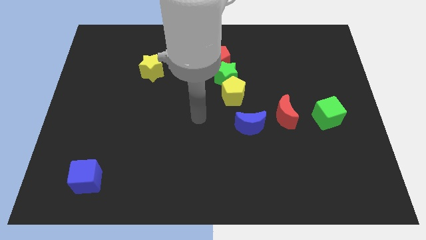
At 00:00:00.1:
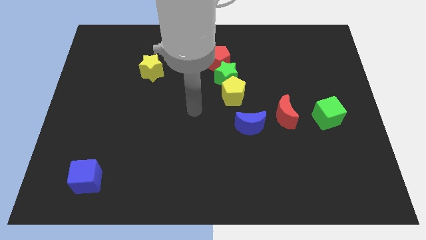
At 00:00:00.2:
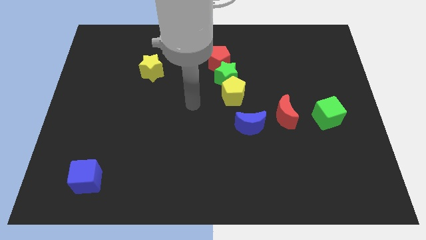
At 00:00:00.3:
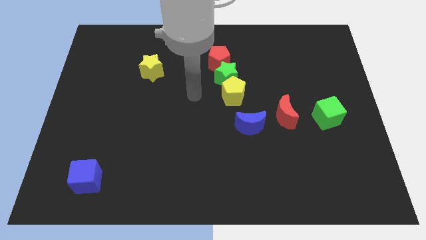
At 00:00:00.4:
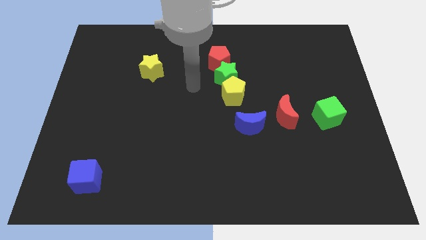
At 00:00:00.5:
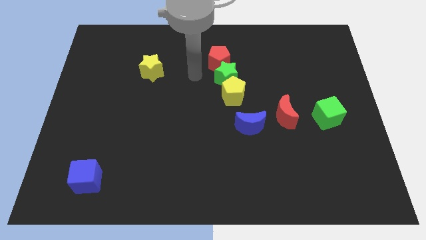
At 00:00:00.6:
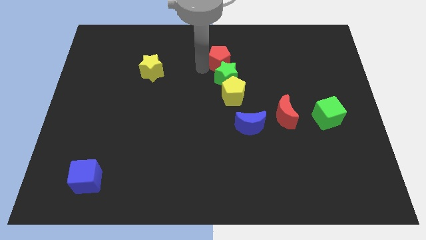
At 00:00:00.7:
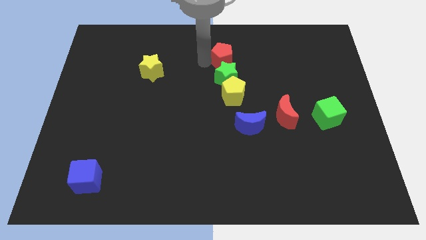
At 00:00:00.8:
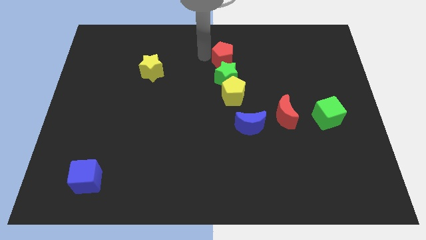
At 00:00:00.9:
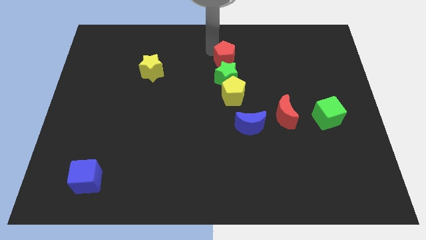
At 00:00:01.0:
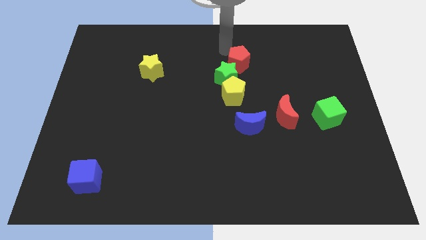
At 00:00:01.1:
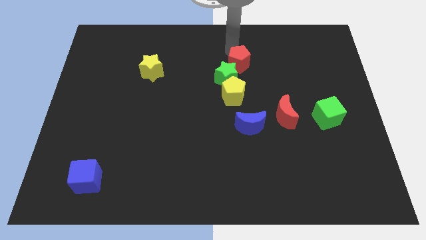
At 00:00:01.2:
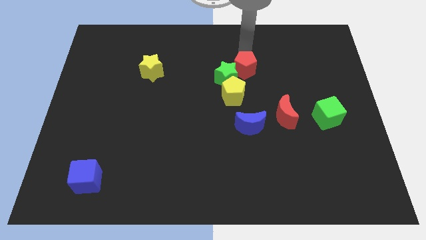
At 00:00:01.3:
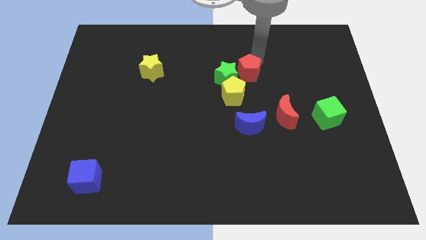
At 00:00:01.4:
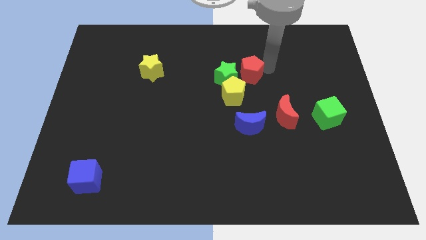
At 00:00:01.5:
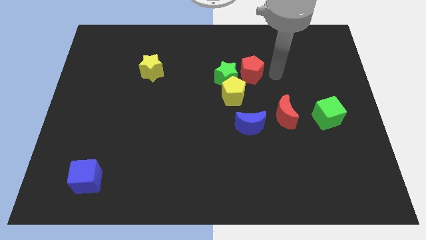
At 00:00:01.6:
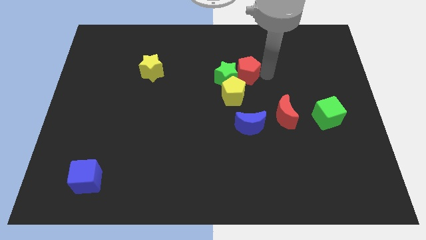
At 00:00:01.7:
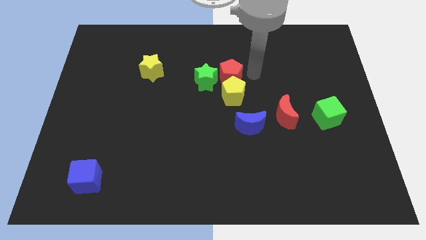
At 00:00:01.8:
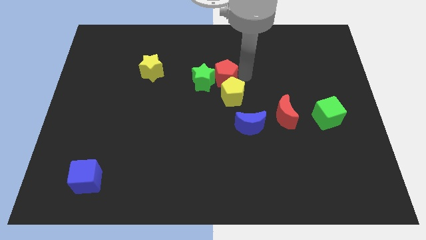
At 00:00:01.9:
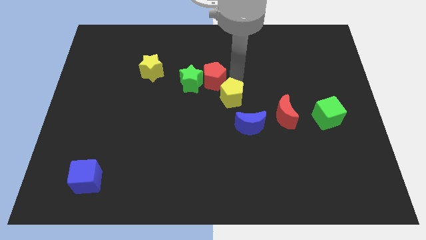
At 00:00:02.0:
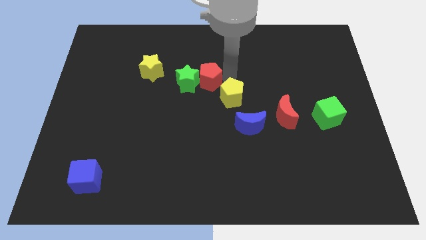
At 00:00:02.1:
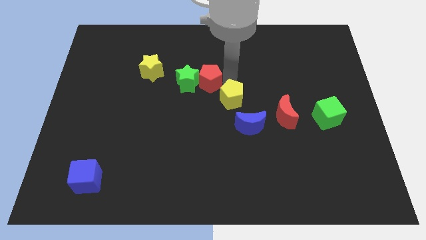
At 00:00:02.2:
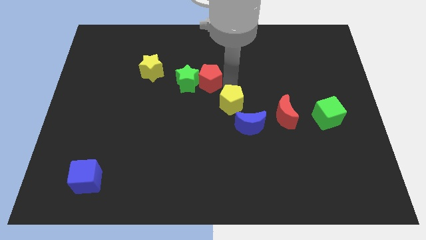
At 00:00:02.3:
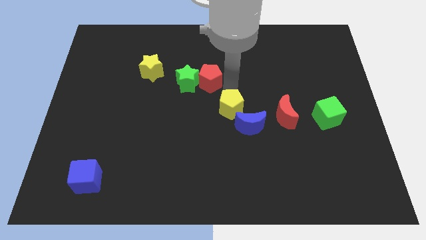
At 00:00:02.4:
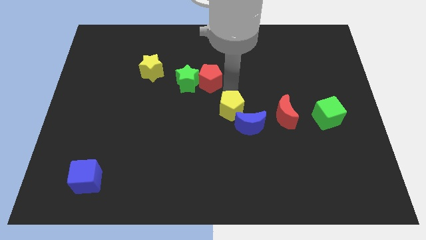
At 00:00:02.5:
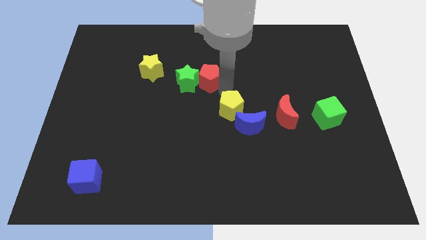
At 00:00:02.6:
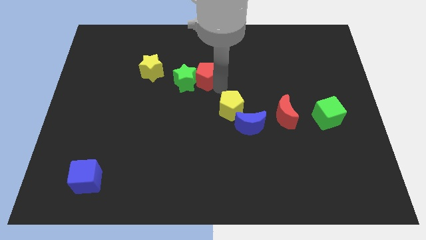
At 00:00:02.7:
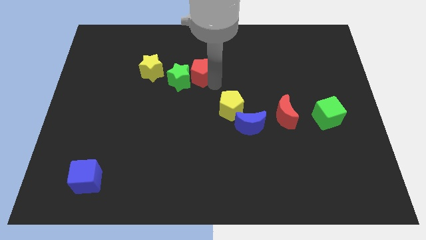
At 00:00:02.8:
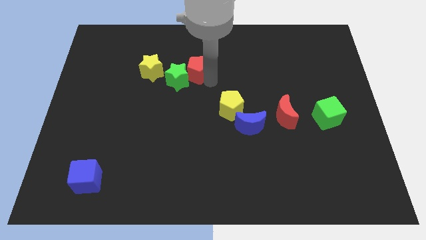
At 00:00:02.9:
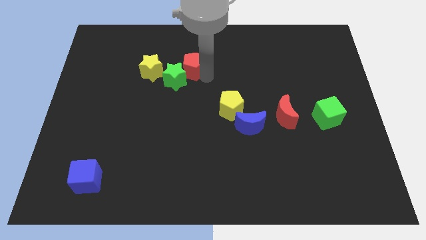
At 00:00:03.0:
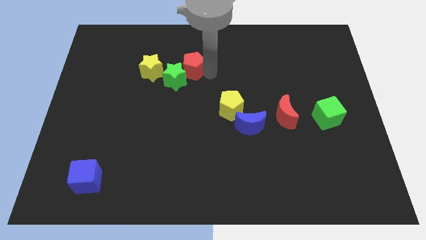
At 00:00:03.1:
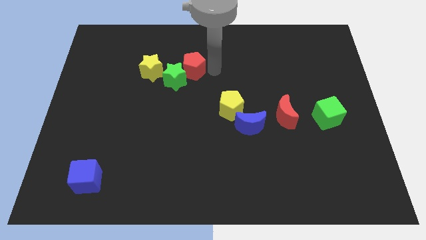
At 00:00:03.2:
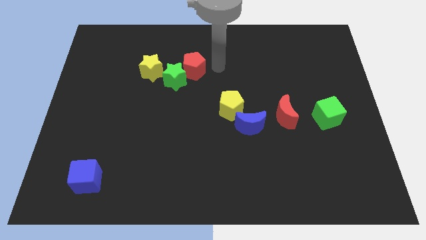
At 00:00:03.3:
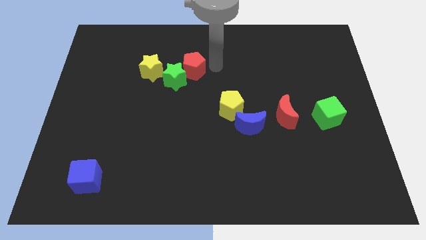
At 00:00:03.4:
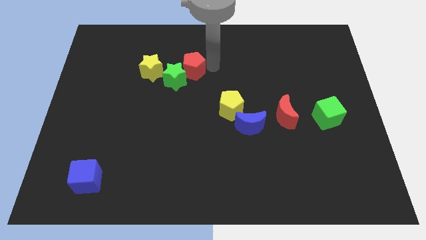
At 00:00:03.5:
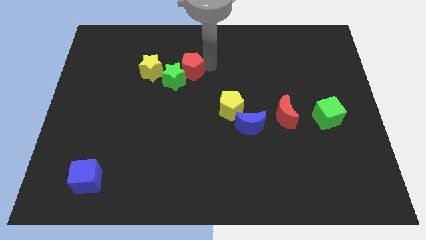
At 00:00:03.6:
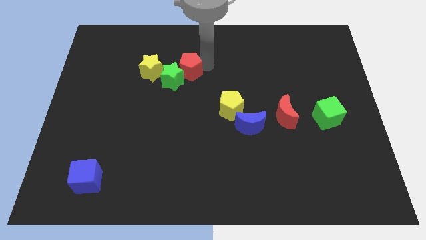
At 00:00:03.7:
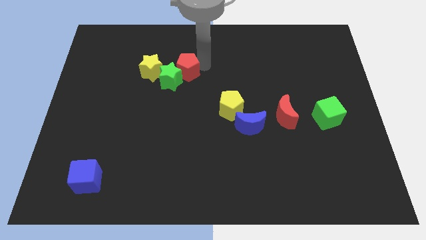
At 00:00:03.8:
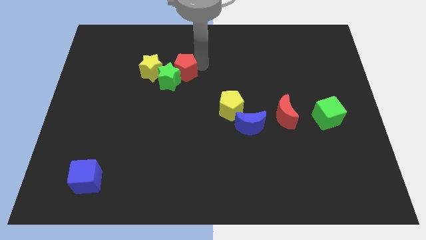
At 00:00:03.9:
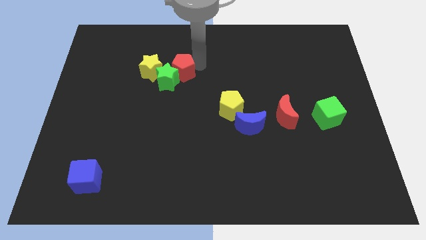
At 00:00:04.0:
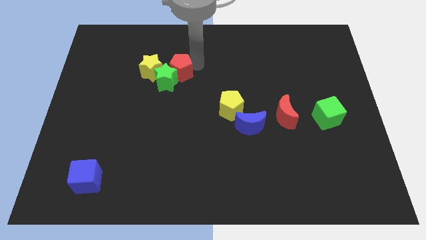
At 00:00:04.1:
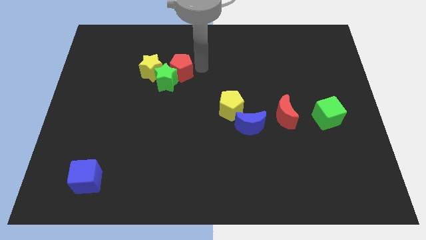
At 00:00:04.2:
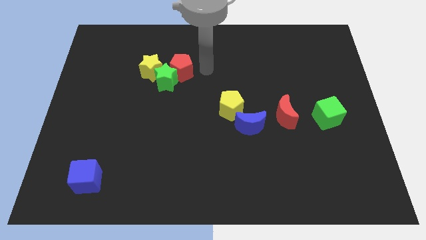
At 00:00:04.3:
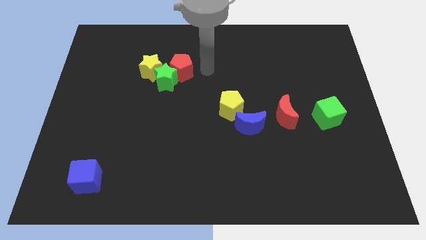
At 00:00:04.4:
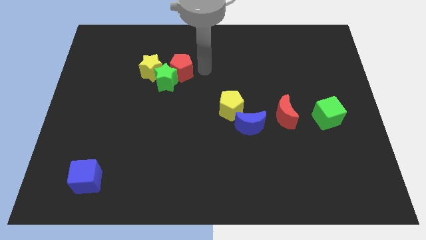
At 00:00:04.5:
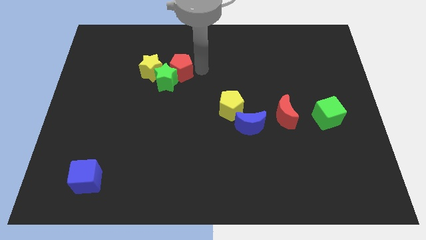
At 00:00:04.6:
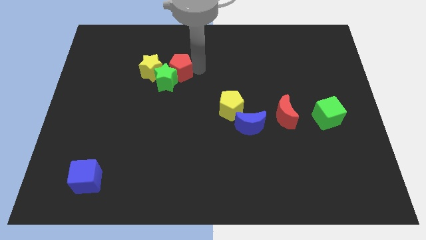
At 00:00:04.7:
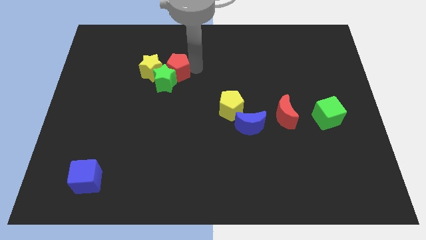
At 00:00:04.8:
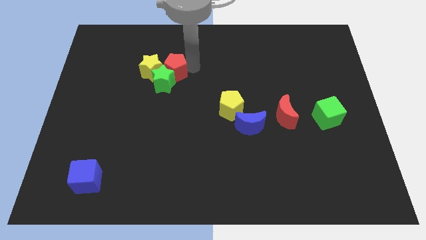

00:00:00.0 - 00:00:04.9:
slide the red pentagon close to the yellow star

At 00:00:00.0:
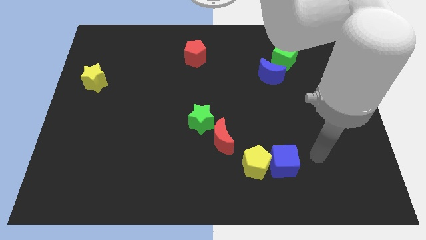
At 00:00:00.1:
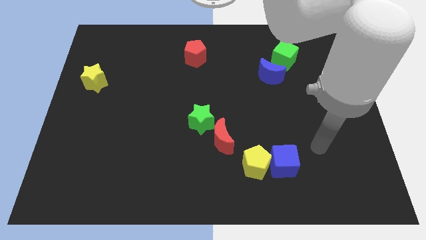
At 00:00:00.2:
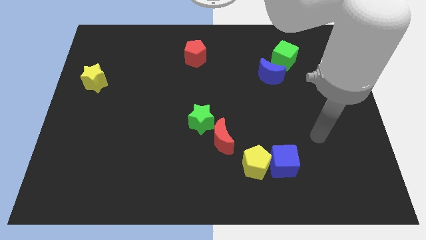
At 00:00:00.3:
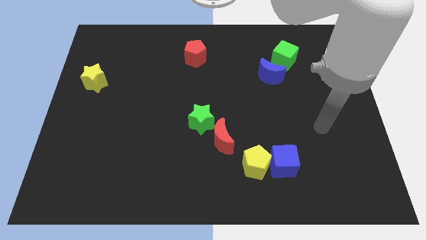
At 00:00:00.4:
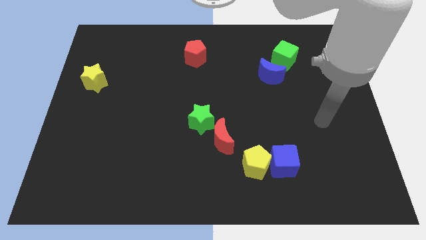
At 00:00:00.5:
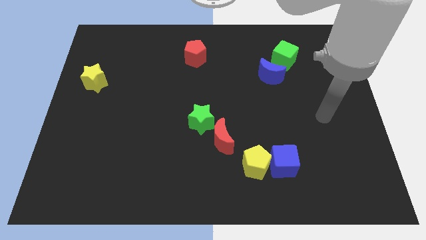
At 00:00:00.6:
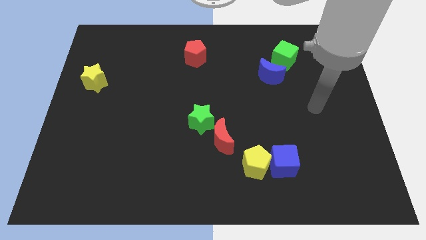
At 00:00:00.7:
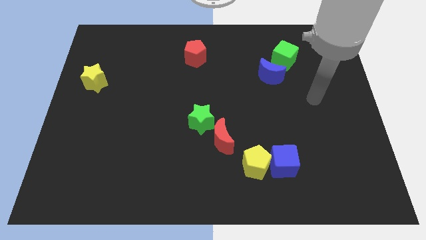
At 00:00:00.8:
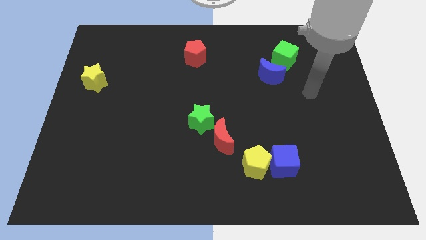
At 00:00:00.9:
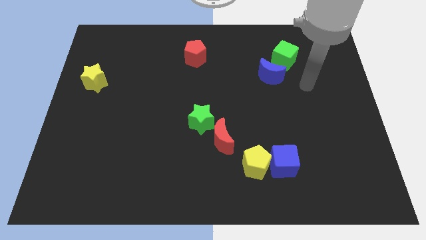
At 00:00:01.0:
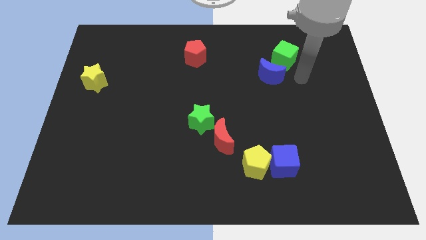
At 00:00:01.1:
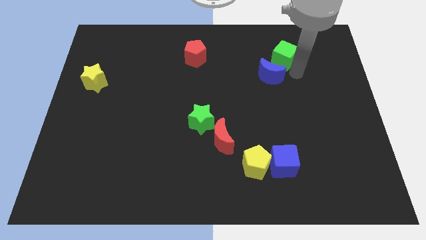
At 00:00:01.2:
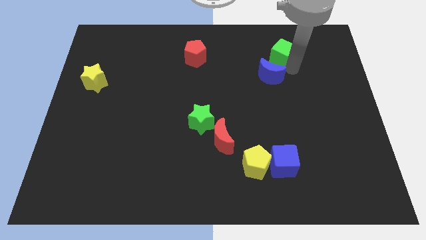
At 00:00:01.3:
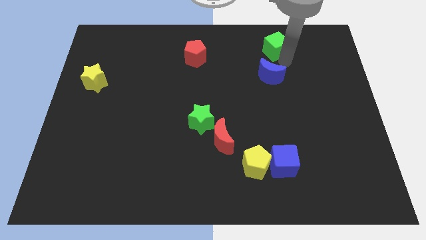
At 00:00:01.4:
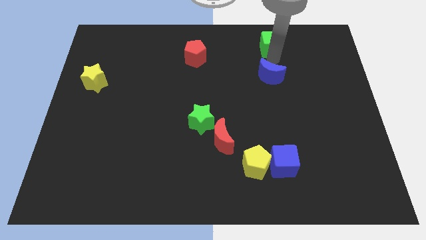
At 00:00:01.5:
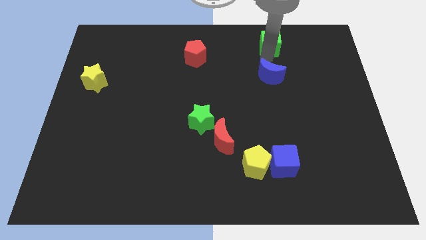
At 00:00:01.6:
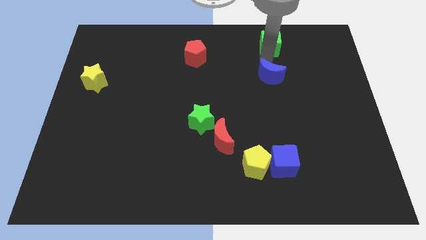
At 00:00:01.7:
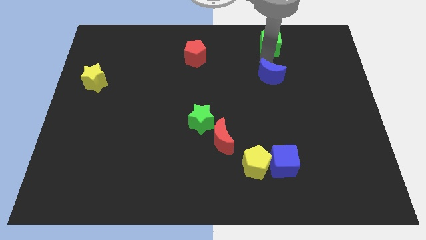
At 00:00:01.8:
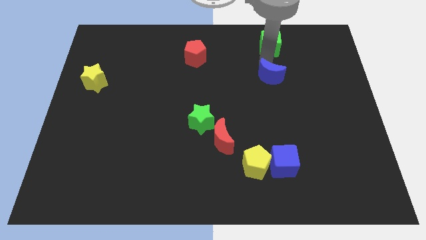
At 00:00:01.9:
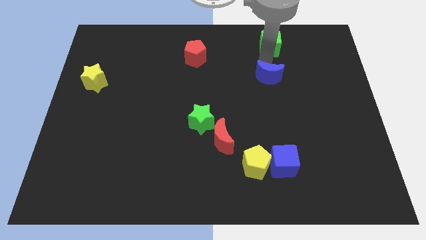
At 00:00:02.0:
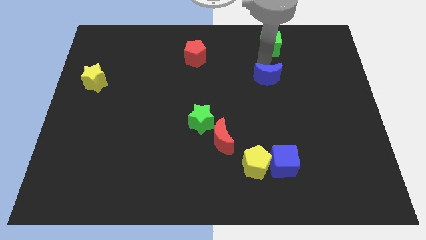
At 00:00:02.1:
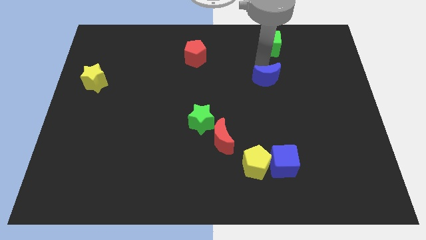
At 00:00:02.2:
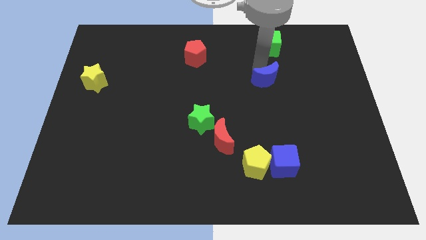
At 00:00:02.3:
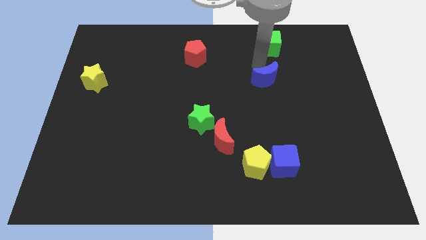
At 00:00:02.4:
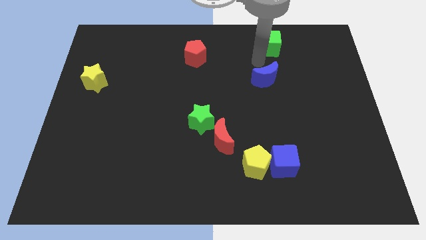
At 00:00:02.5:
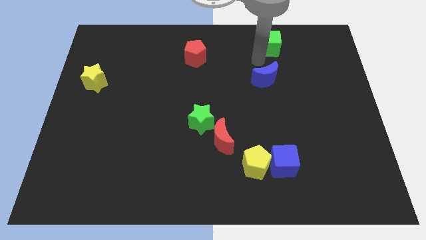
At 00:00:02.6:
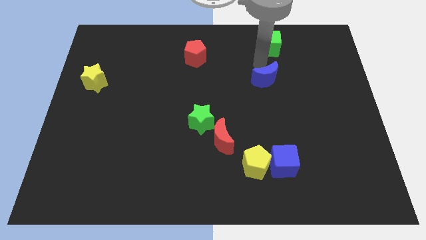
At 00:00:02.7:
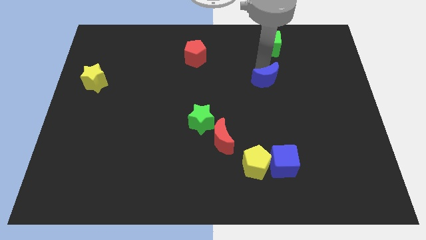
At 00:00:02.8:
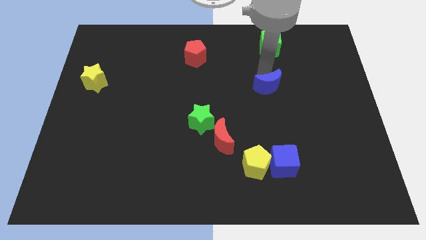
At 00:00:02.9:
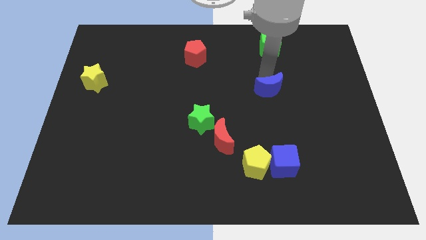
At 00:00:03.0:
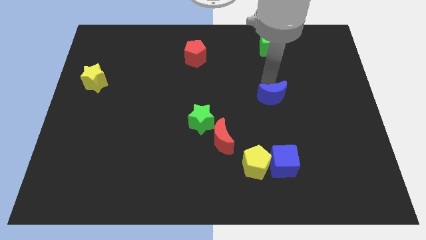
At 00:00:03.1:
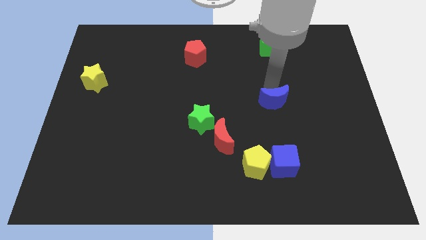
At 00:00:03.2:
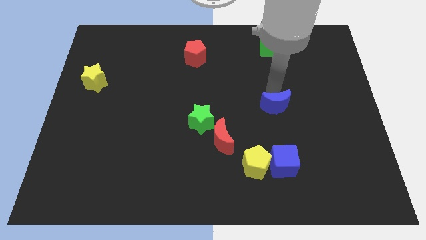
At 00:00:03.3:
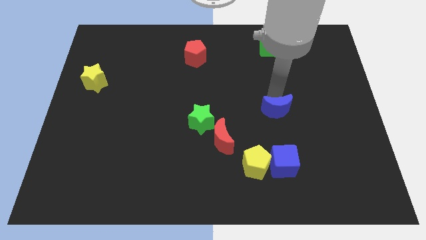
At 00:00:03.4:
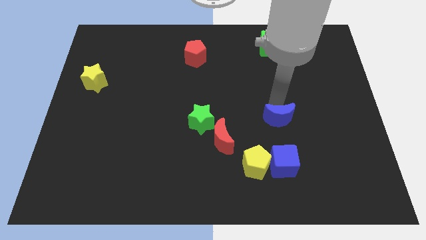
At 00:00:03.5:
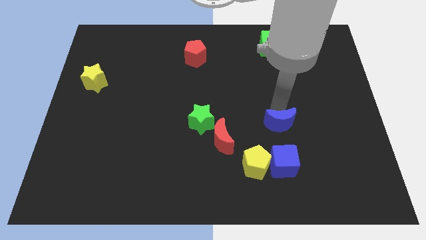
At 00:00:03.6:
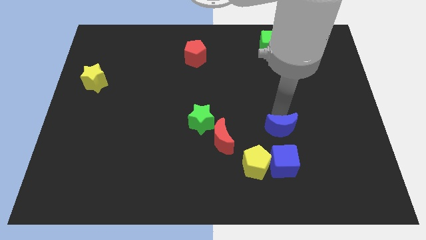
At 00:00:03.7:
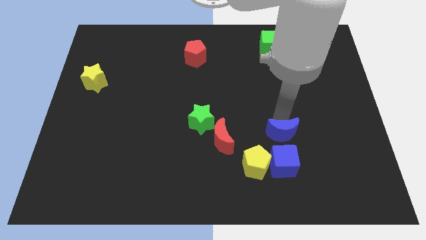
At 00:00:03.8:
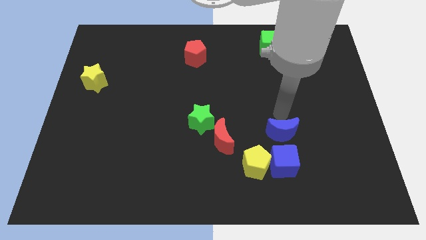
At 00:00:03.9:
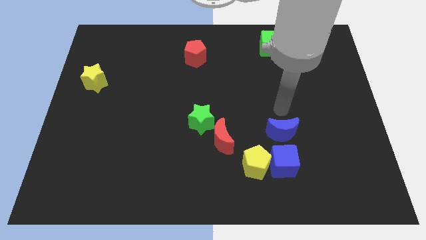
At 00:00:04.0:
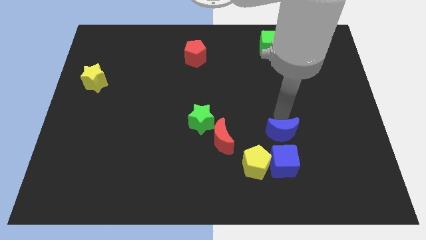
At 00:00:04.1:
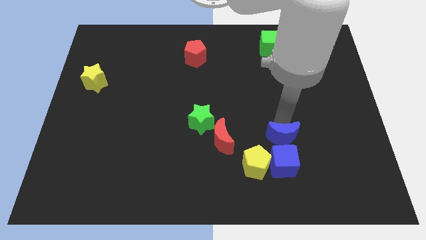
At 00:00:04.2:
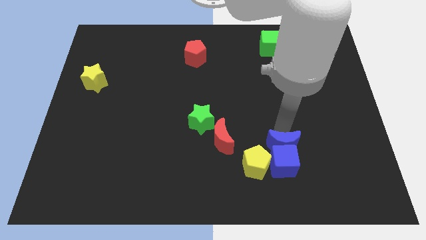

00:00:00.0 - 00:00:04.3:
slide the blue moon close to the blue cube
